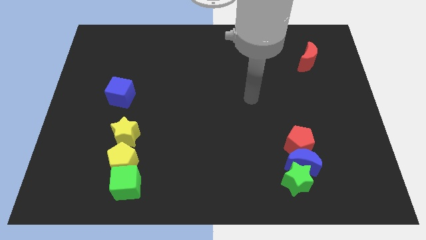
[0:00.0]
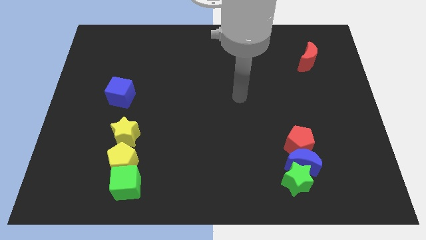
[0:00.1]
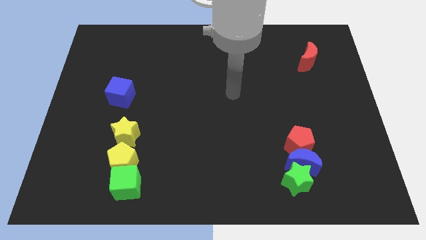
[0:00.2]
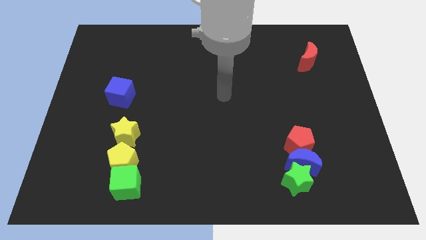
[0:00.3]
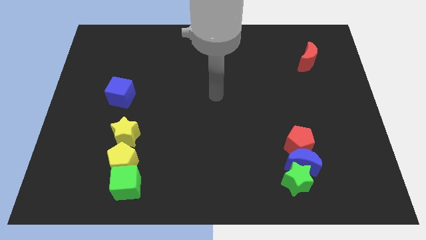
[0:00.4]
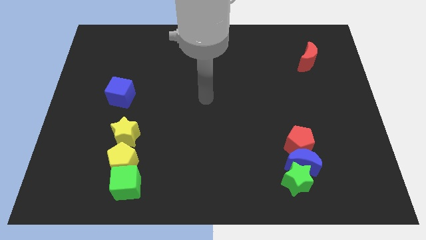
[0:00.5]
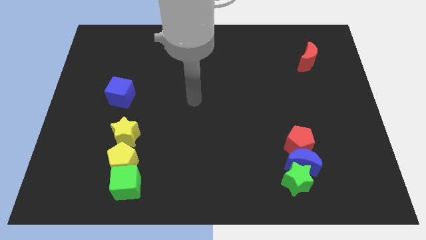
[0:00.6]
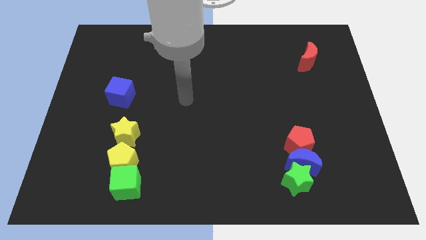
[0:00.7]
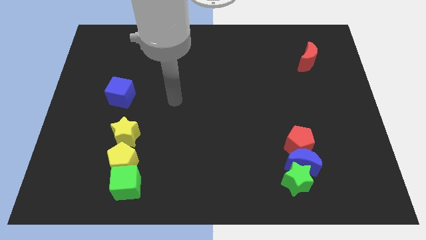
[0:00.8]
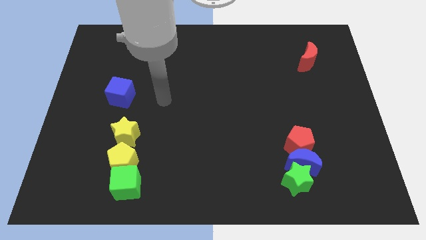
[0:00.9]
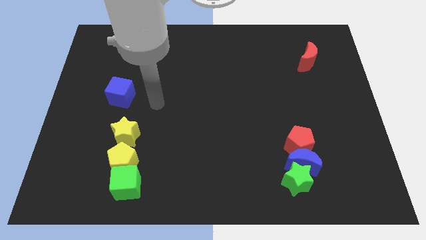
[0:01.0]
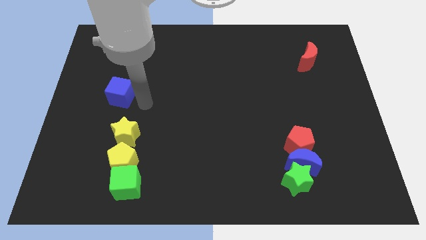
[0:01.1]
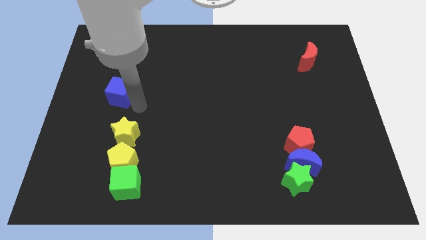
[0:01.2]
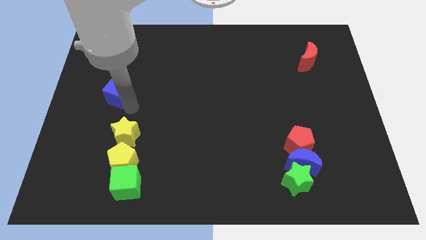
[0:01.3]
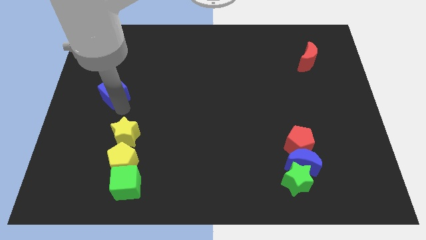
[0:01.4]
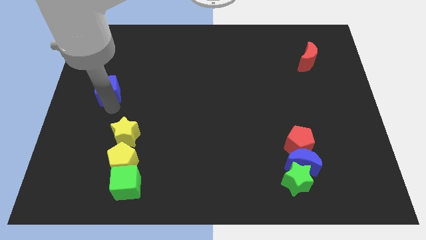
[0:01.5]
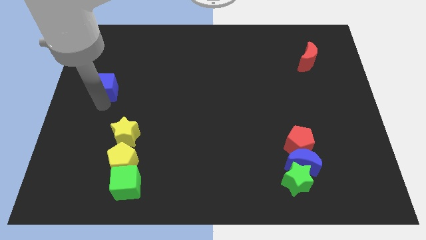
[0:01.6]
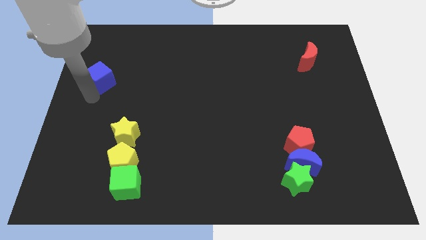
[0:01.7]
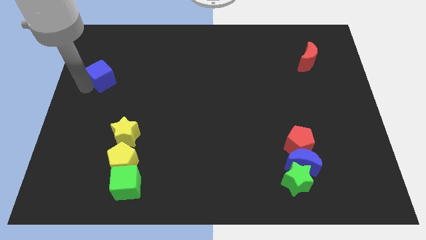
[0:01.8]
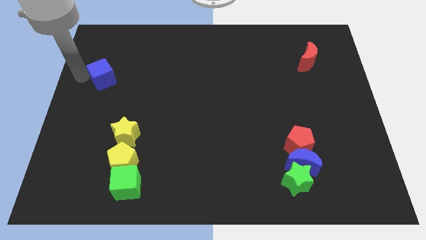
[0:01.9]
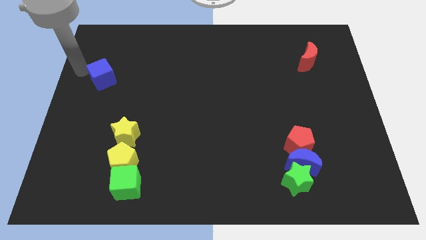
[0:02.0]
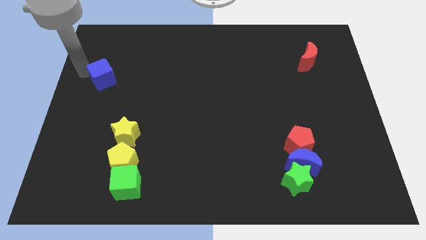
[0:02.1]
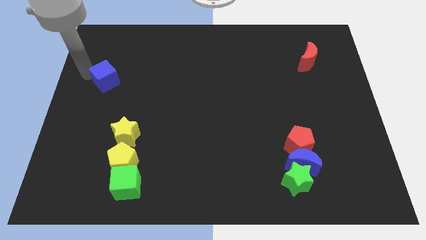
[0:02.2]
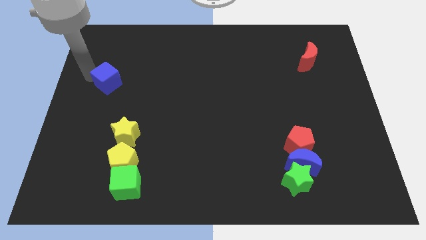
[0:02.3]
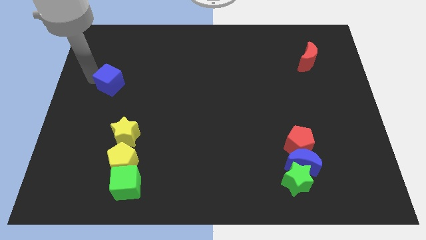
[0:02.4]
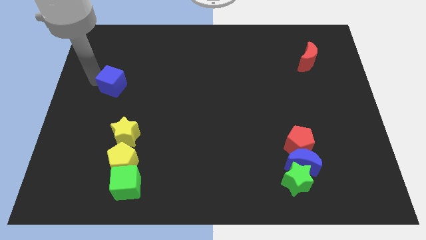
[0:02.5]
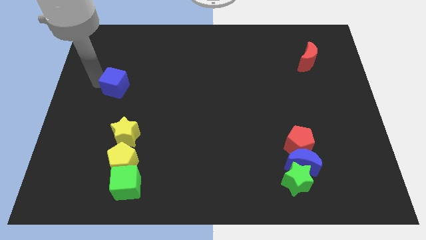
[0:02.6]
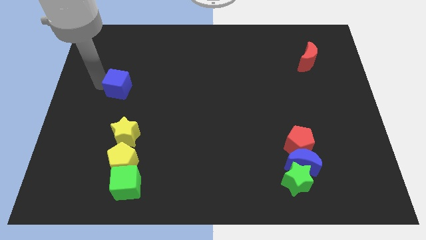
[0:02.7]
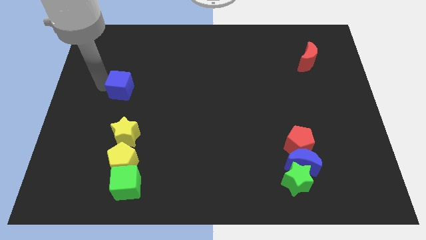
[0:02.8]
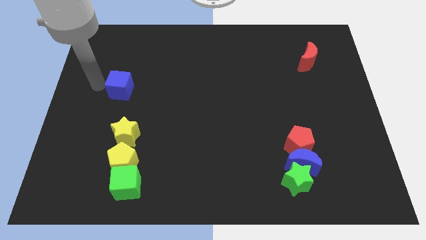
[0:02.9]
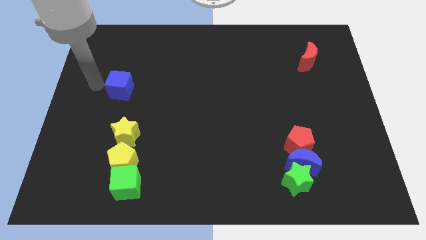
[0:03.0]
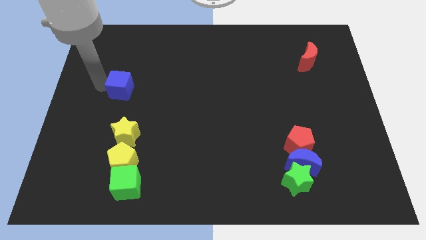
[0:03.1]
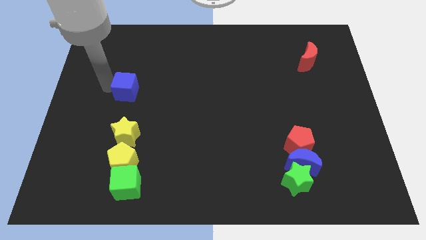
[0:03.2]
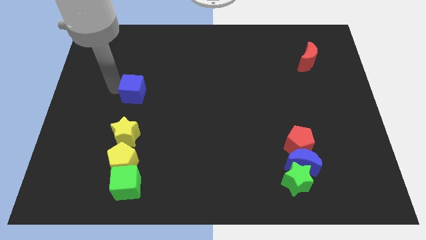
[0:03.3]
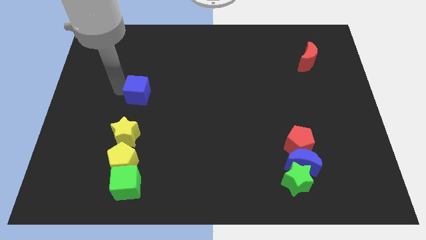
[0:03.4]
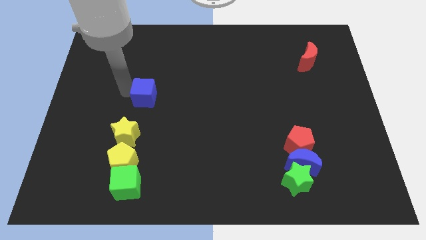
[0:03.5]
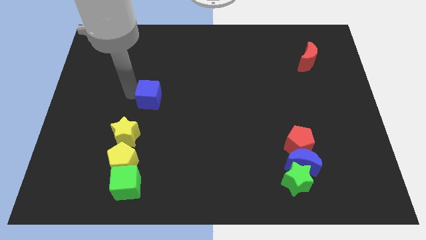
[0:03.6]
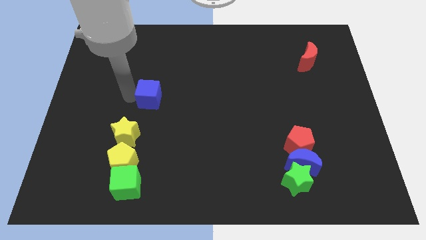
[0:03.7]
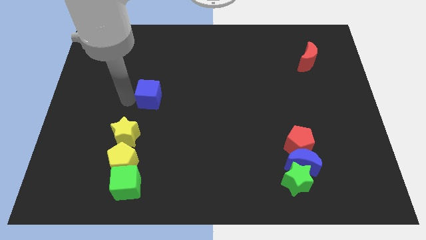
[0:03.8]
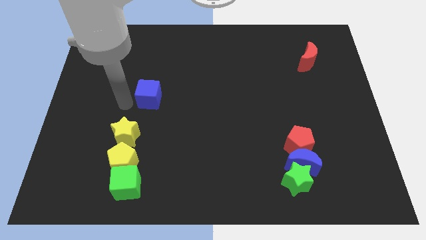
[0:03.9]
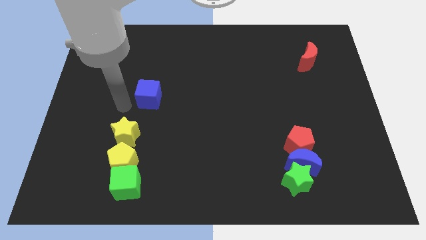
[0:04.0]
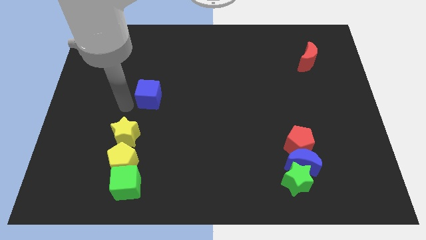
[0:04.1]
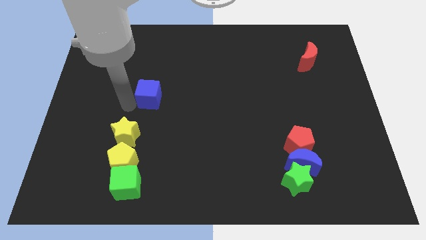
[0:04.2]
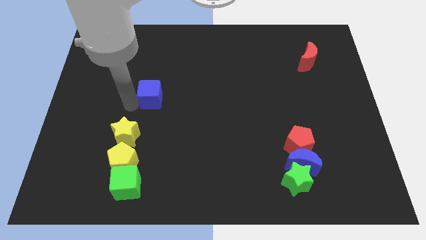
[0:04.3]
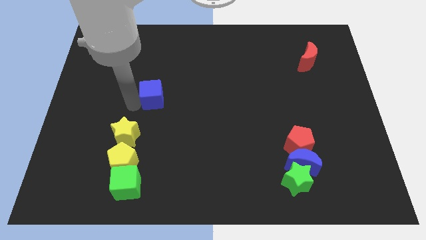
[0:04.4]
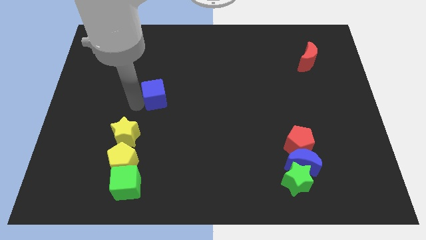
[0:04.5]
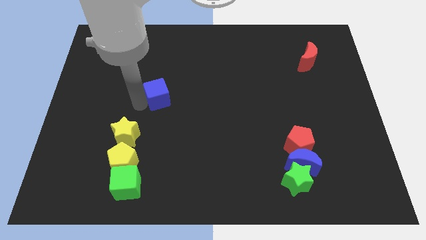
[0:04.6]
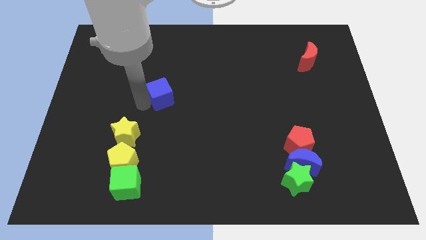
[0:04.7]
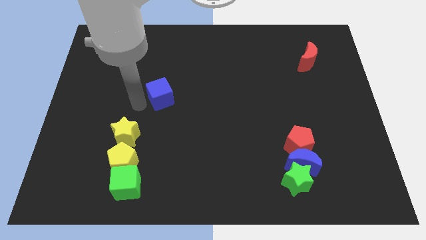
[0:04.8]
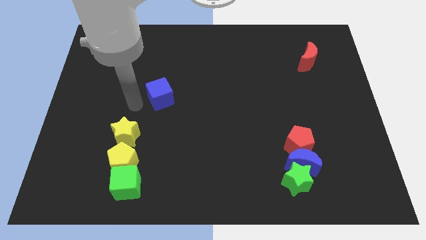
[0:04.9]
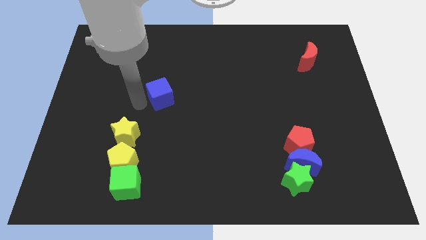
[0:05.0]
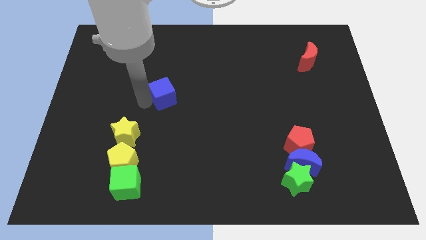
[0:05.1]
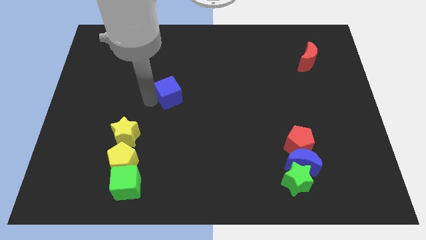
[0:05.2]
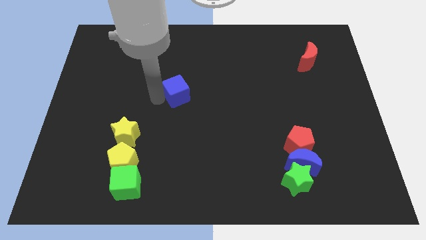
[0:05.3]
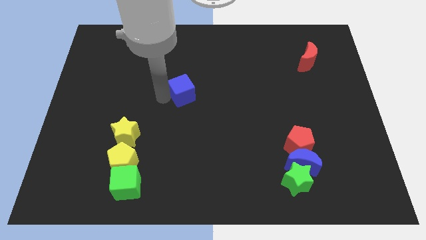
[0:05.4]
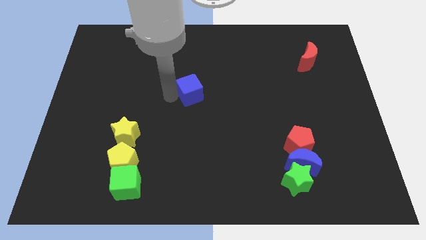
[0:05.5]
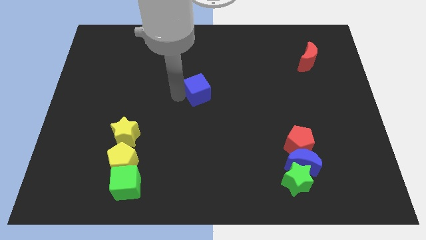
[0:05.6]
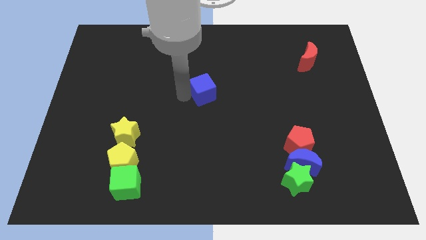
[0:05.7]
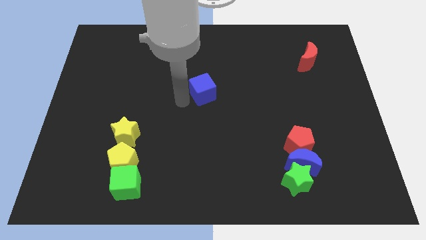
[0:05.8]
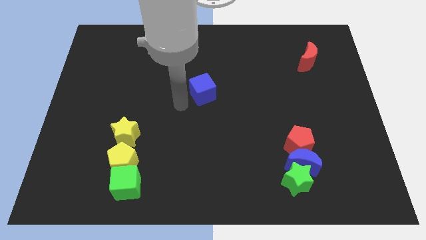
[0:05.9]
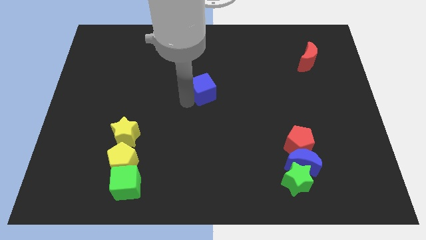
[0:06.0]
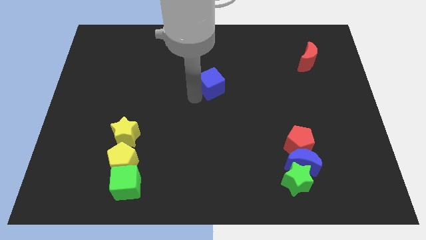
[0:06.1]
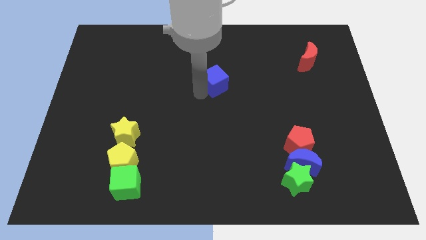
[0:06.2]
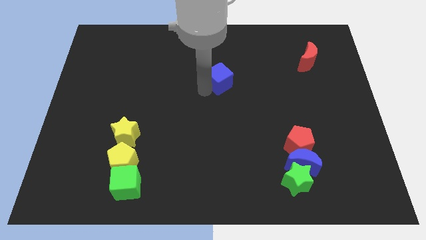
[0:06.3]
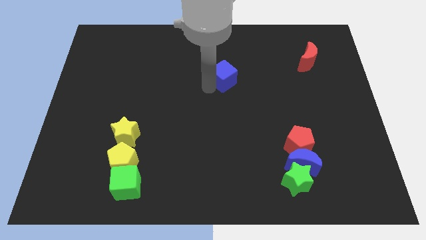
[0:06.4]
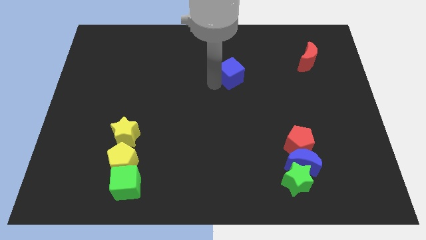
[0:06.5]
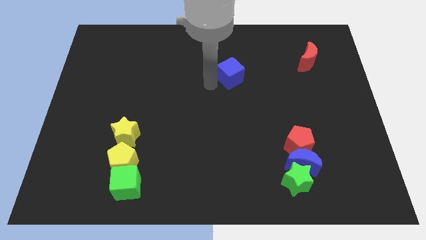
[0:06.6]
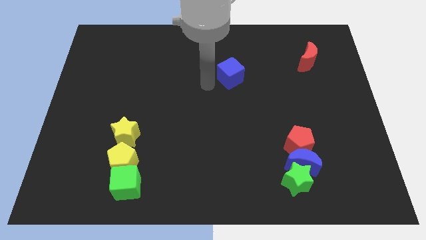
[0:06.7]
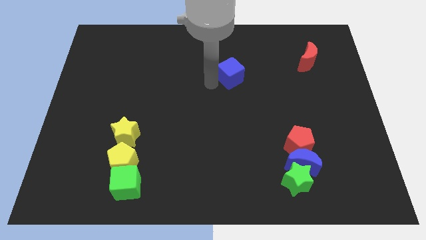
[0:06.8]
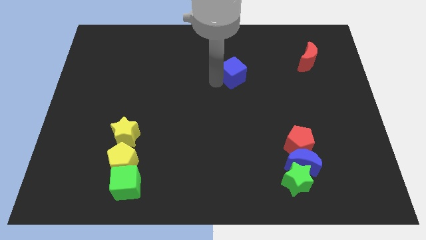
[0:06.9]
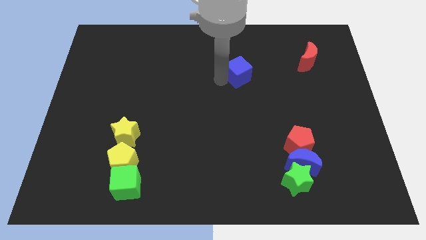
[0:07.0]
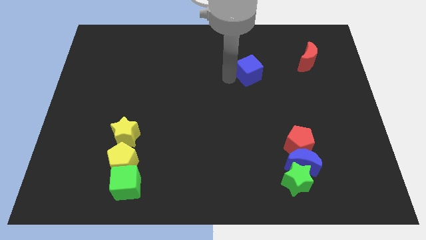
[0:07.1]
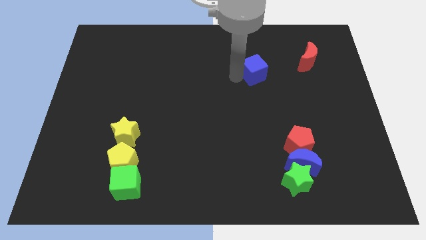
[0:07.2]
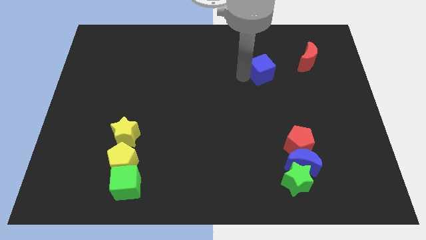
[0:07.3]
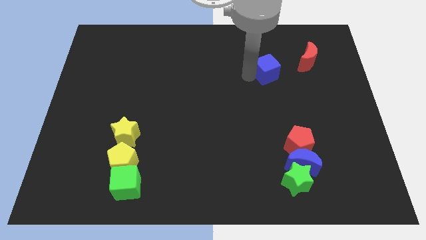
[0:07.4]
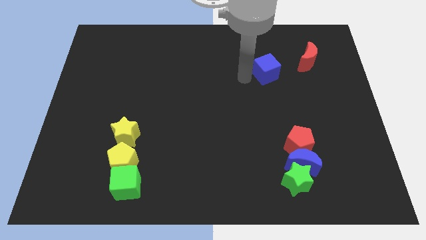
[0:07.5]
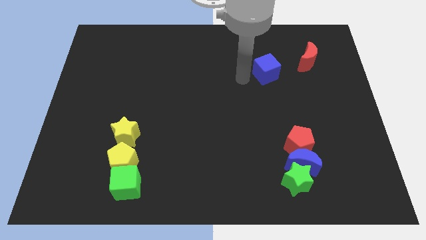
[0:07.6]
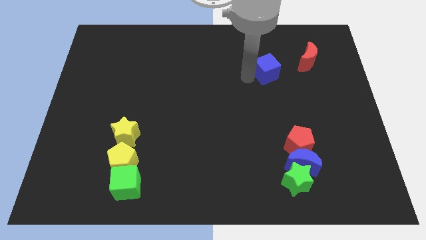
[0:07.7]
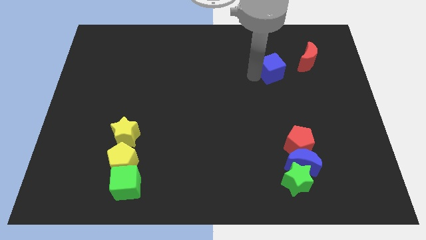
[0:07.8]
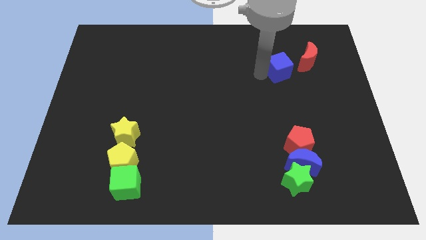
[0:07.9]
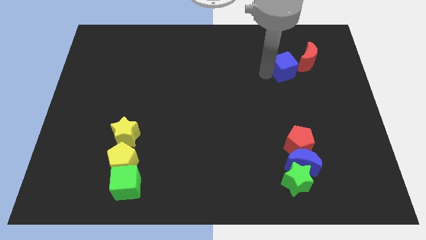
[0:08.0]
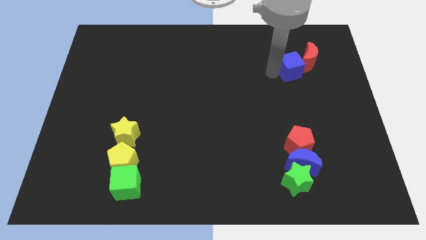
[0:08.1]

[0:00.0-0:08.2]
slide the blue cube to the red moon
